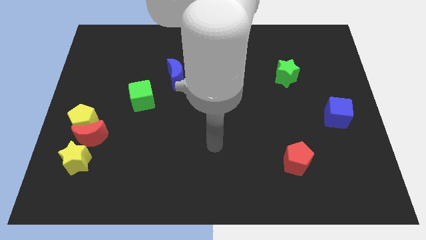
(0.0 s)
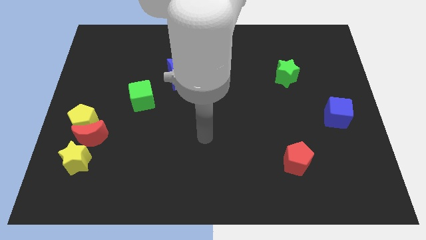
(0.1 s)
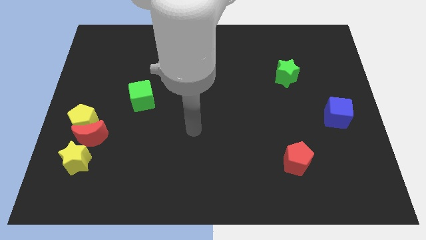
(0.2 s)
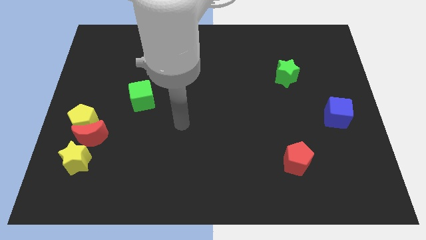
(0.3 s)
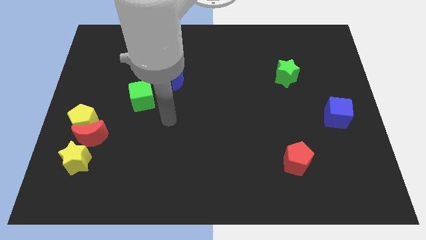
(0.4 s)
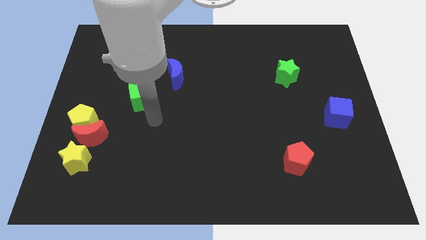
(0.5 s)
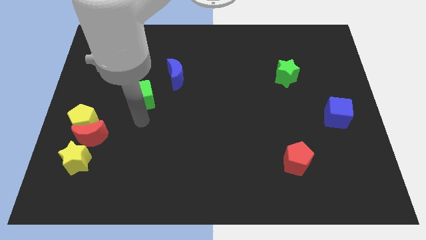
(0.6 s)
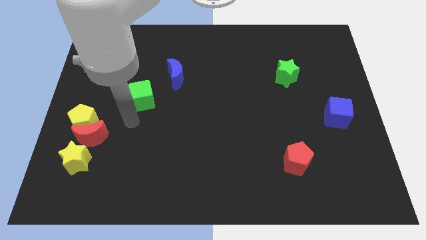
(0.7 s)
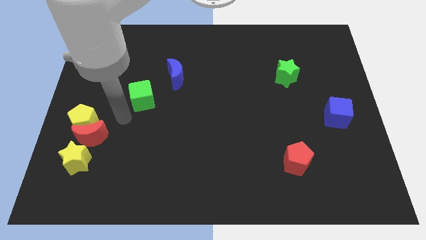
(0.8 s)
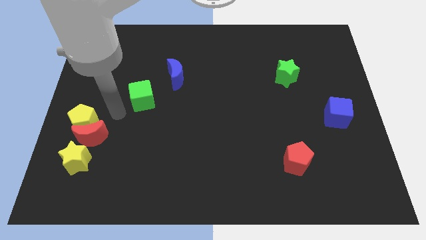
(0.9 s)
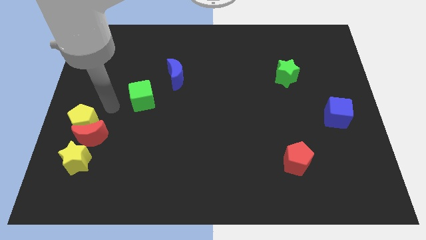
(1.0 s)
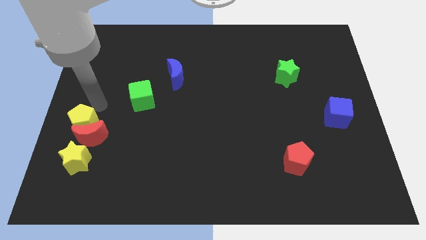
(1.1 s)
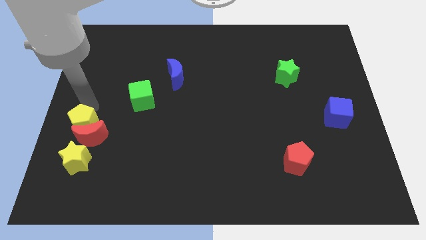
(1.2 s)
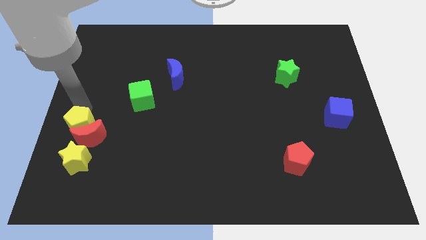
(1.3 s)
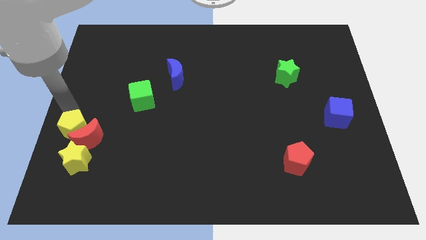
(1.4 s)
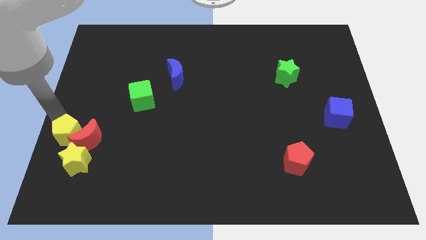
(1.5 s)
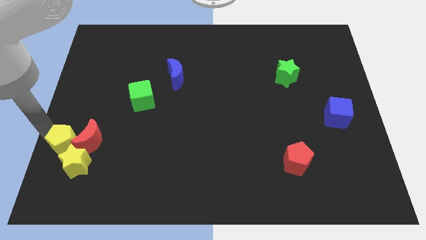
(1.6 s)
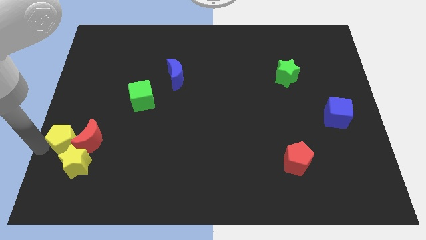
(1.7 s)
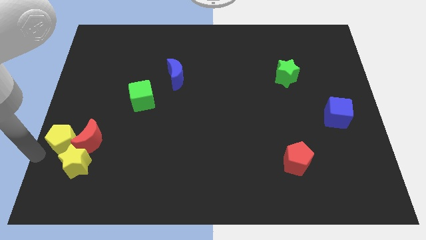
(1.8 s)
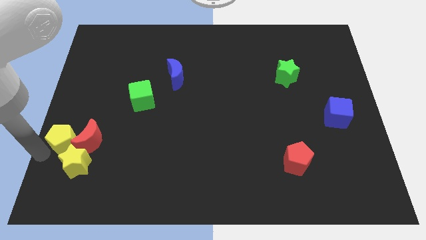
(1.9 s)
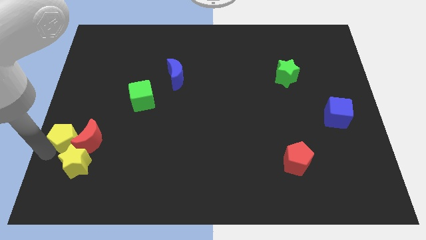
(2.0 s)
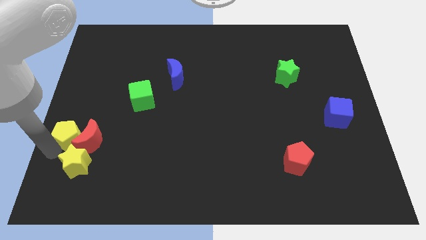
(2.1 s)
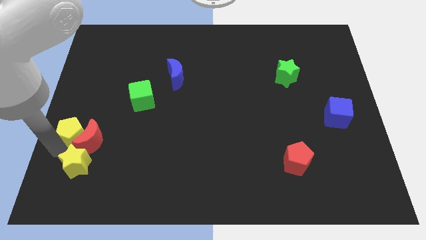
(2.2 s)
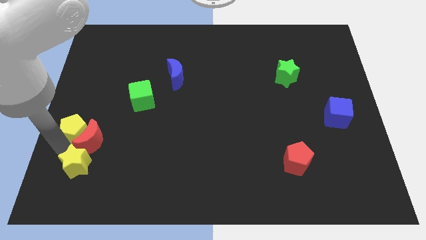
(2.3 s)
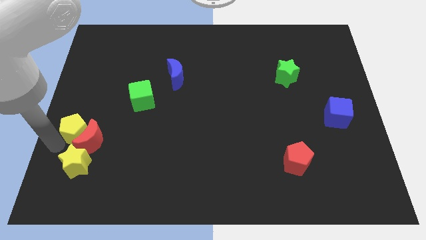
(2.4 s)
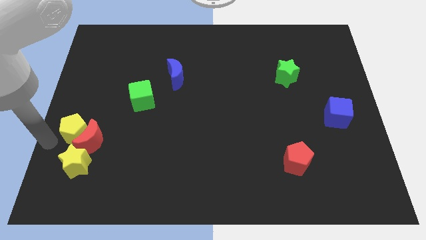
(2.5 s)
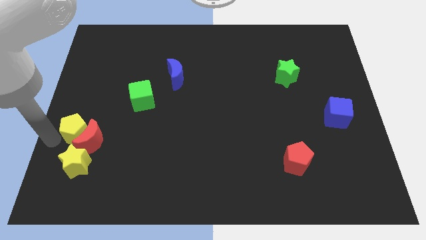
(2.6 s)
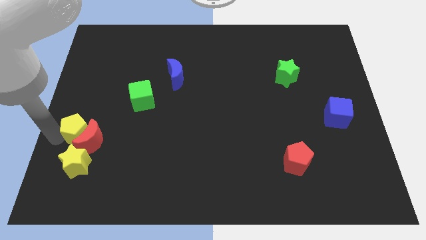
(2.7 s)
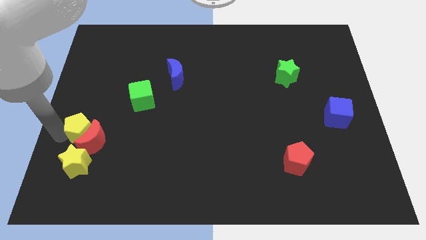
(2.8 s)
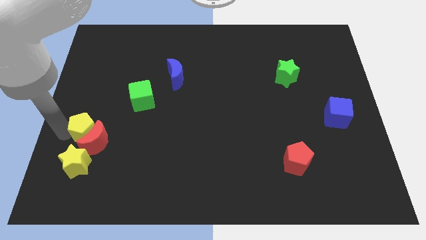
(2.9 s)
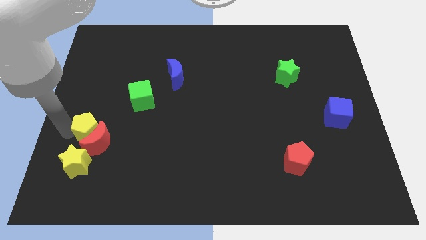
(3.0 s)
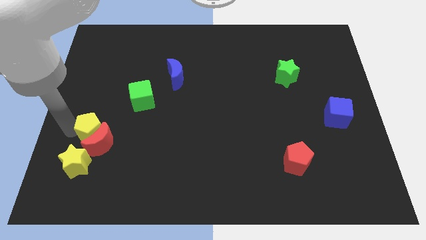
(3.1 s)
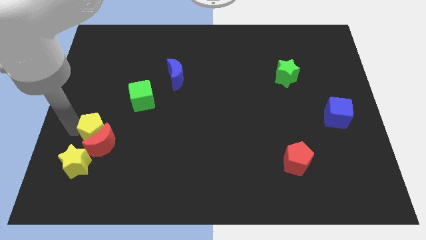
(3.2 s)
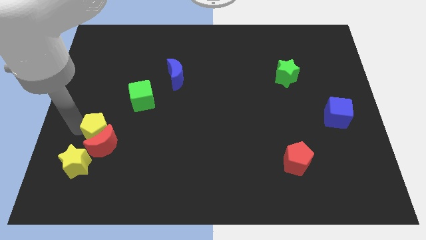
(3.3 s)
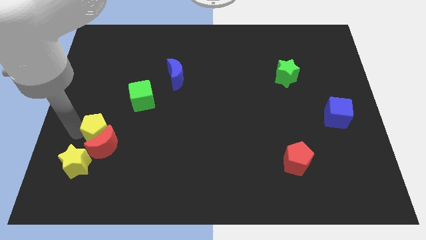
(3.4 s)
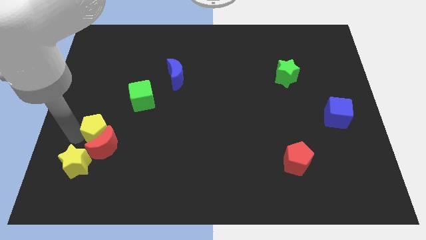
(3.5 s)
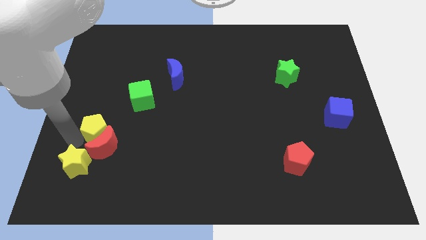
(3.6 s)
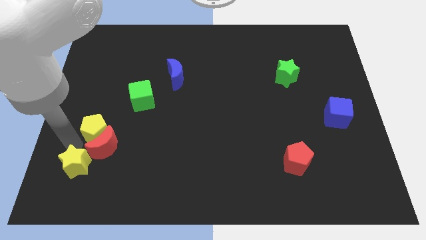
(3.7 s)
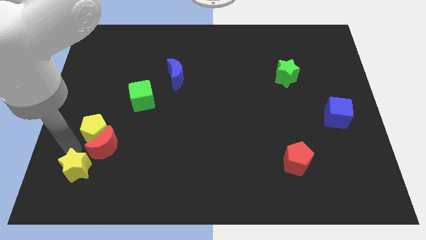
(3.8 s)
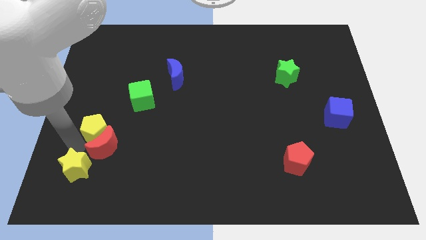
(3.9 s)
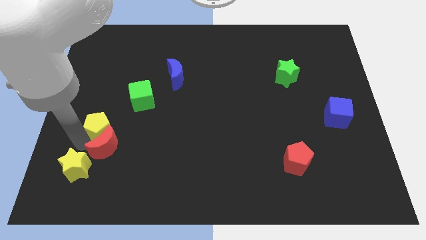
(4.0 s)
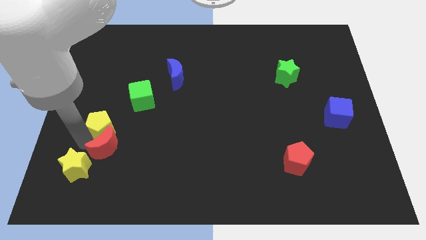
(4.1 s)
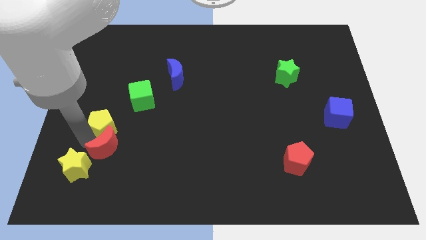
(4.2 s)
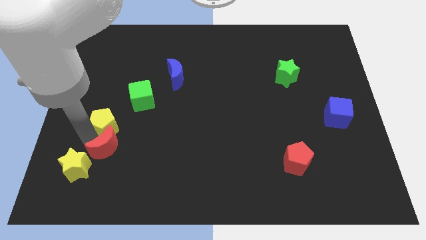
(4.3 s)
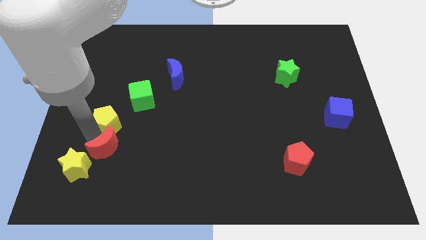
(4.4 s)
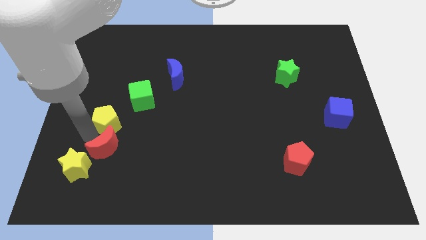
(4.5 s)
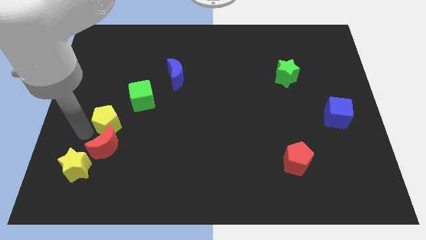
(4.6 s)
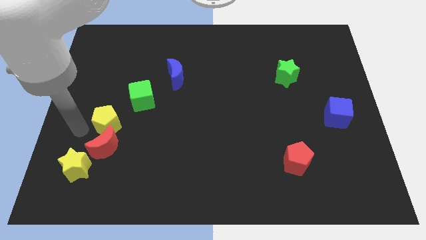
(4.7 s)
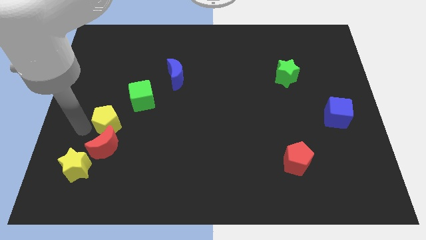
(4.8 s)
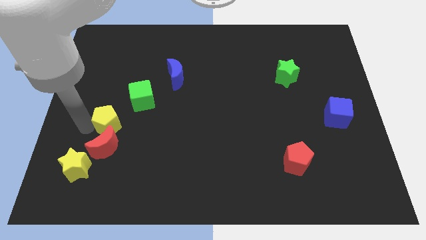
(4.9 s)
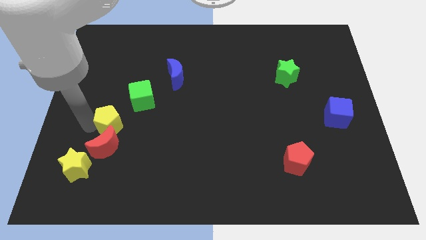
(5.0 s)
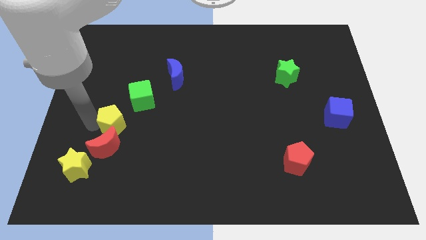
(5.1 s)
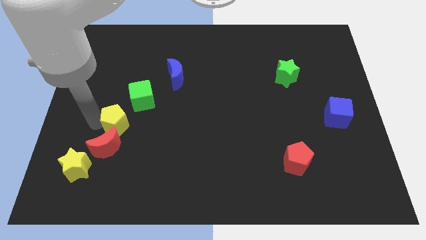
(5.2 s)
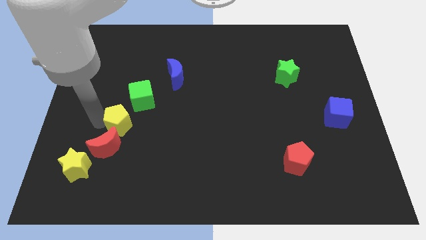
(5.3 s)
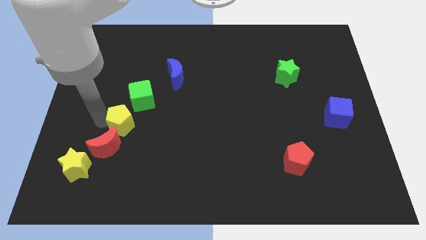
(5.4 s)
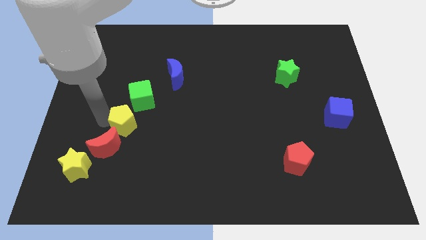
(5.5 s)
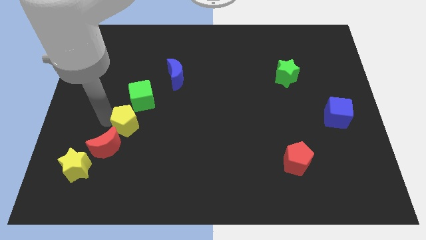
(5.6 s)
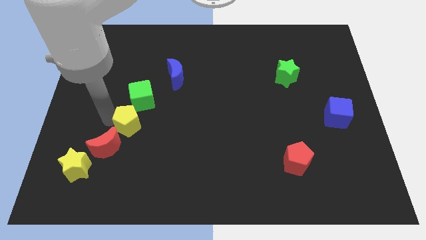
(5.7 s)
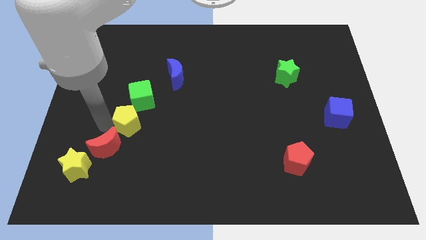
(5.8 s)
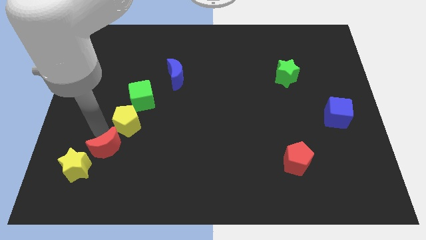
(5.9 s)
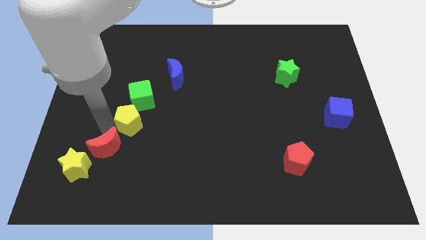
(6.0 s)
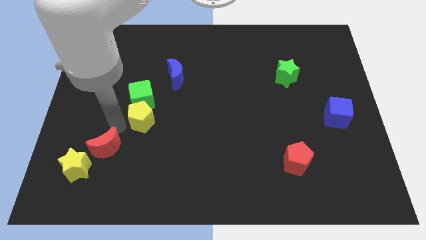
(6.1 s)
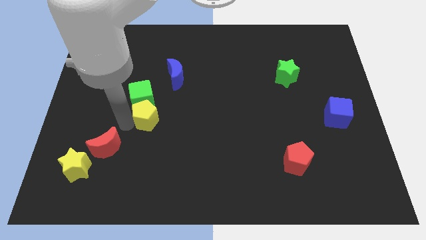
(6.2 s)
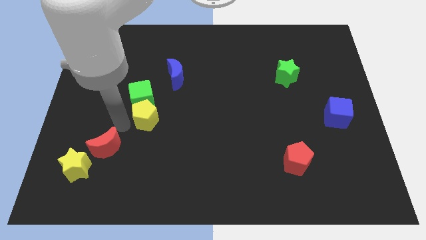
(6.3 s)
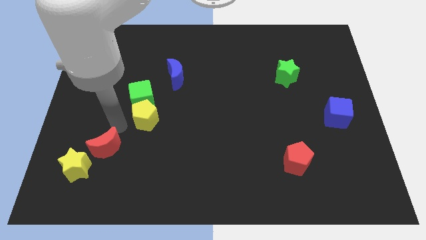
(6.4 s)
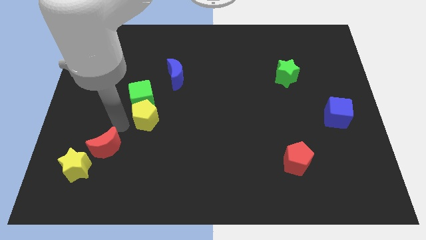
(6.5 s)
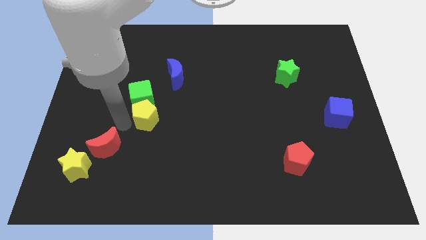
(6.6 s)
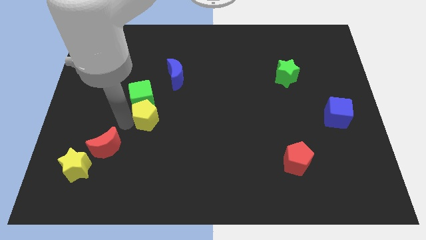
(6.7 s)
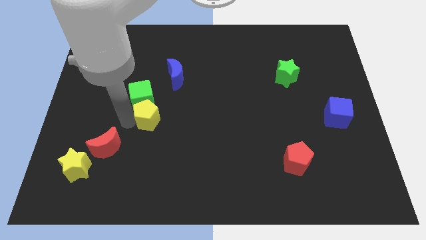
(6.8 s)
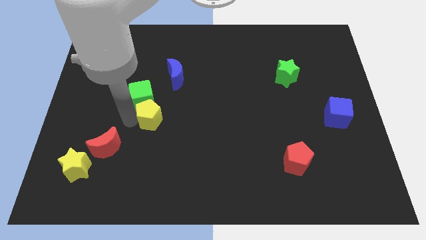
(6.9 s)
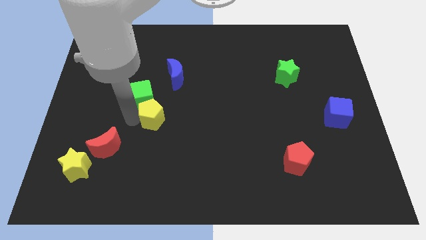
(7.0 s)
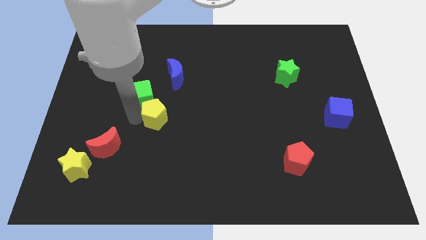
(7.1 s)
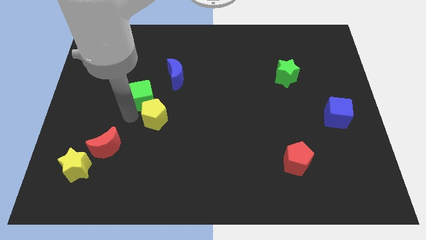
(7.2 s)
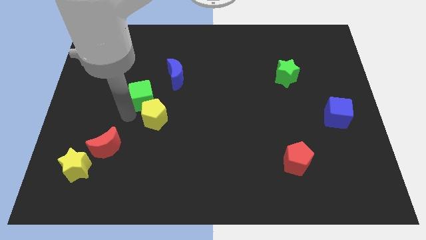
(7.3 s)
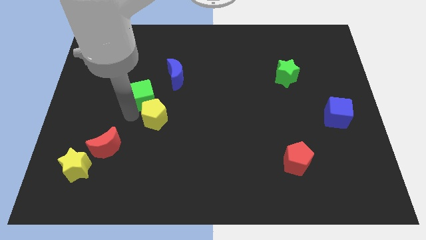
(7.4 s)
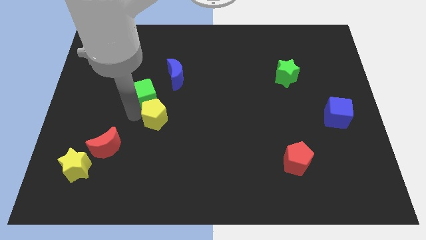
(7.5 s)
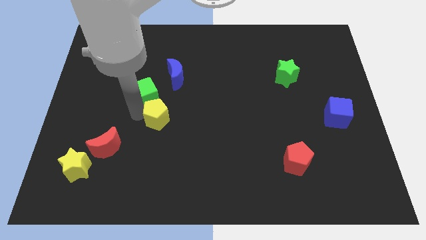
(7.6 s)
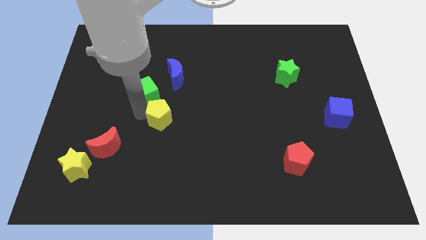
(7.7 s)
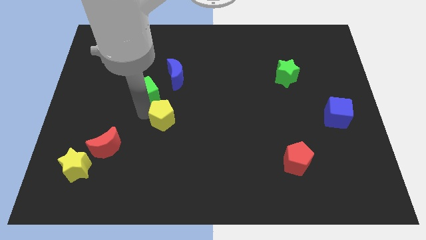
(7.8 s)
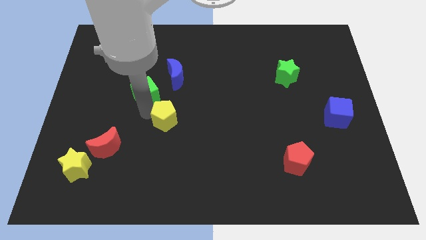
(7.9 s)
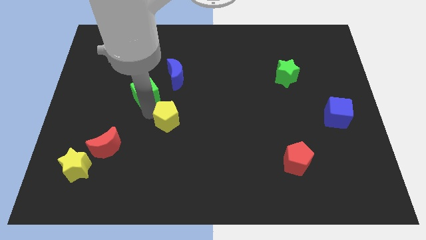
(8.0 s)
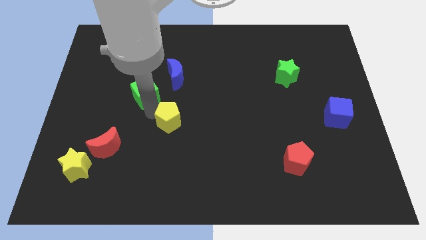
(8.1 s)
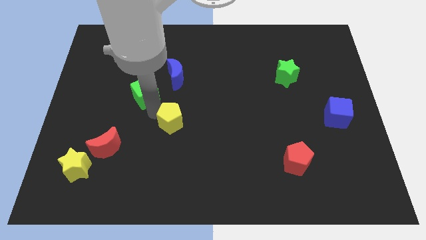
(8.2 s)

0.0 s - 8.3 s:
move the yellow pentagon to the right
